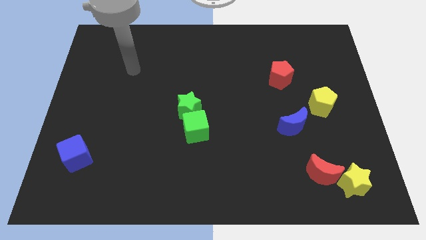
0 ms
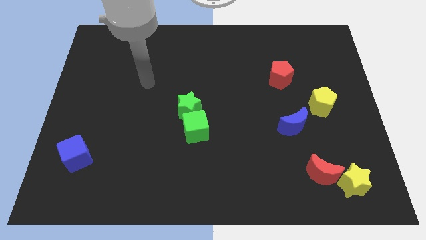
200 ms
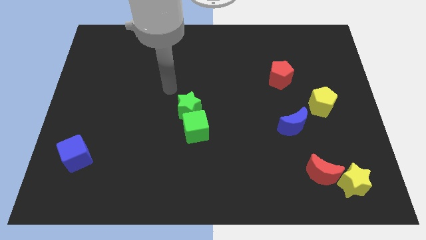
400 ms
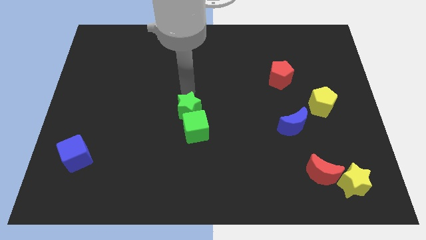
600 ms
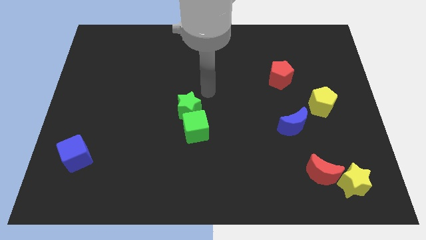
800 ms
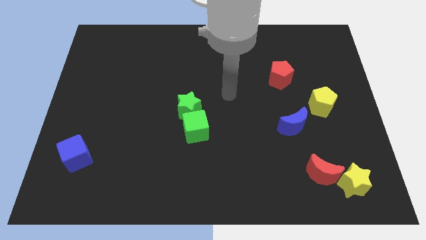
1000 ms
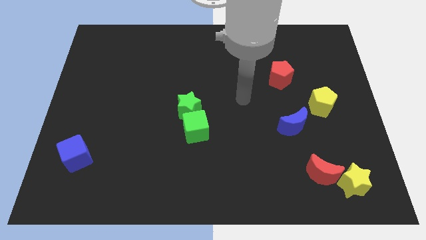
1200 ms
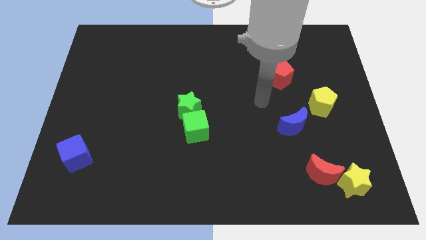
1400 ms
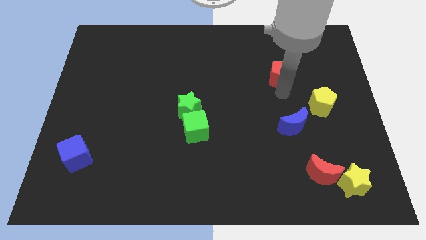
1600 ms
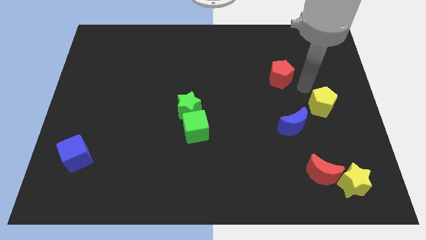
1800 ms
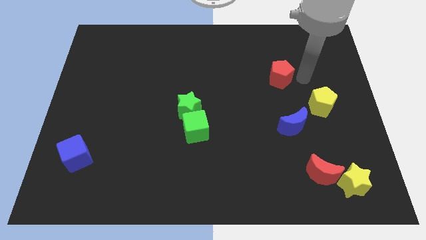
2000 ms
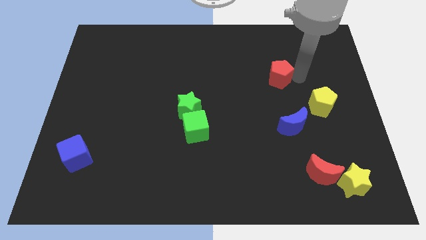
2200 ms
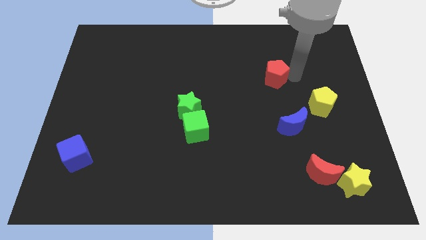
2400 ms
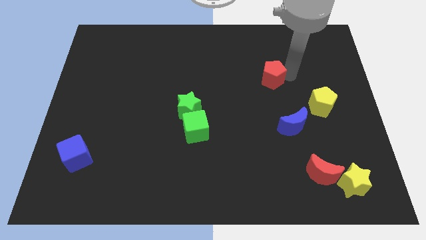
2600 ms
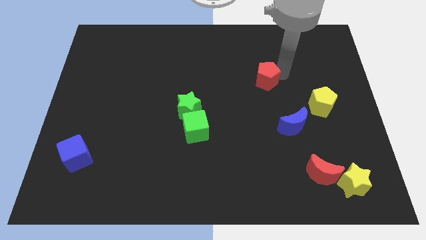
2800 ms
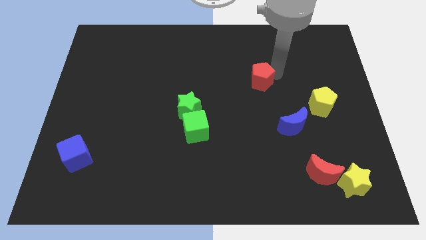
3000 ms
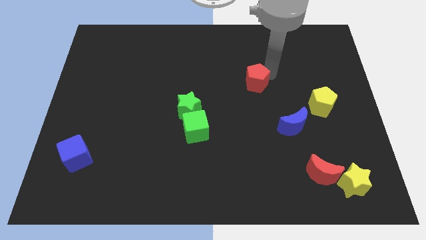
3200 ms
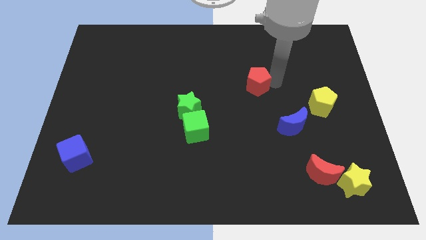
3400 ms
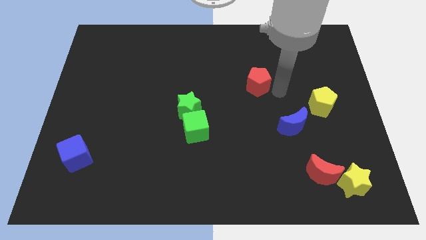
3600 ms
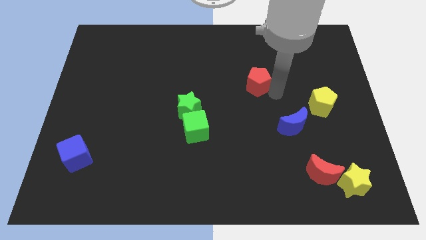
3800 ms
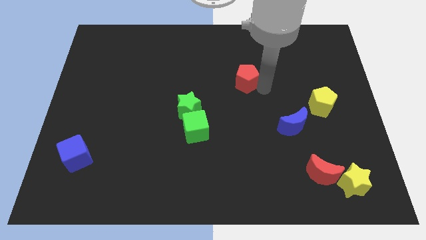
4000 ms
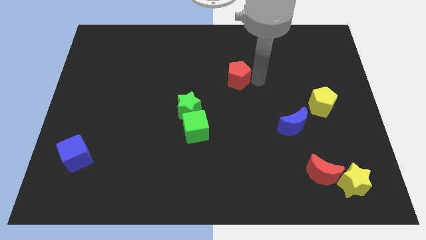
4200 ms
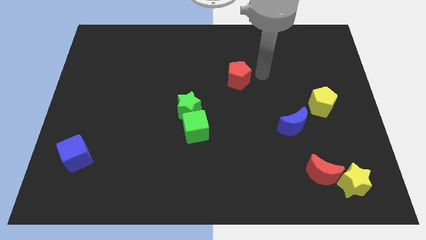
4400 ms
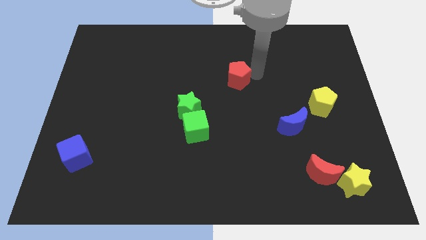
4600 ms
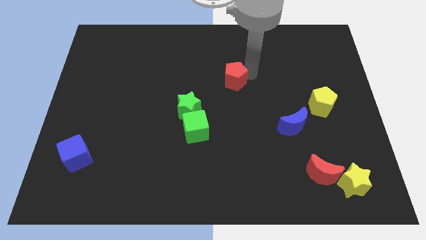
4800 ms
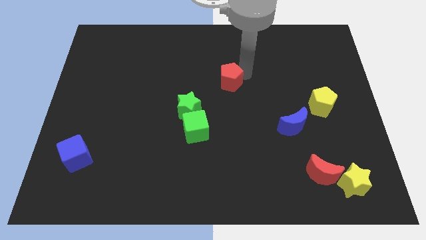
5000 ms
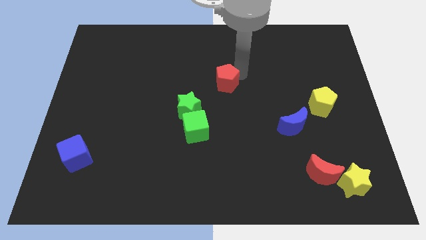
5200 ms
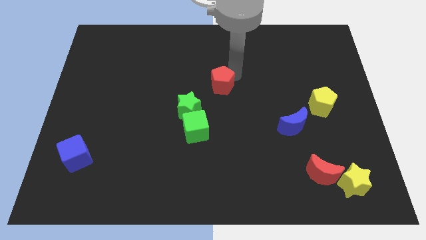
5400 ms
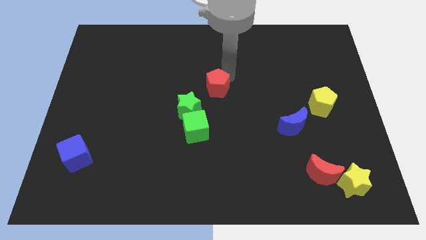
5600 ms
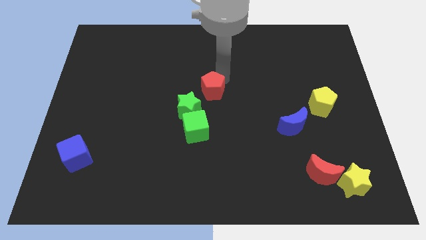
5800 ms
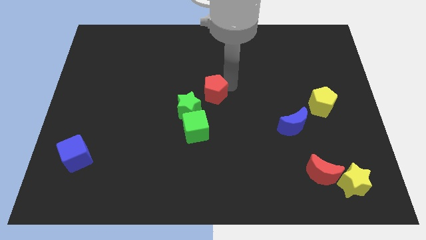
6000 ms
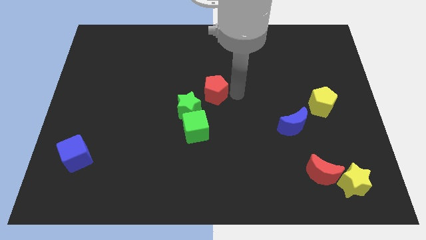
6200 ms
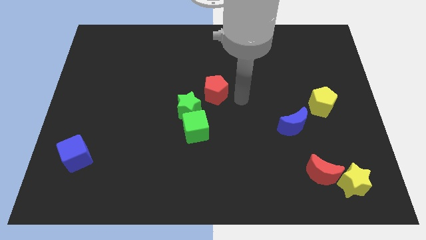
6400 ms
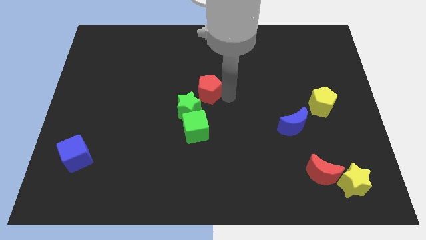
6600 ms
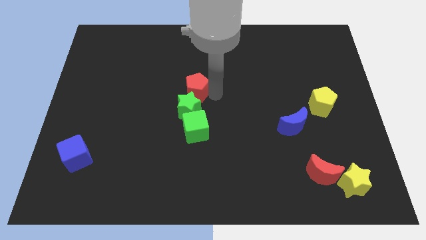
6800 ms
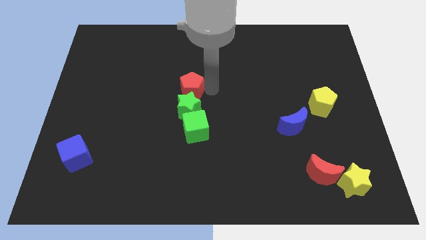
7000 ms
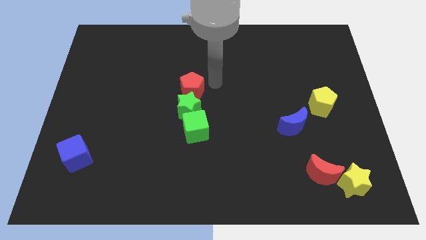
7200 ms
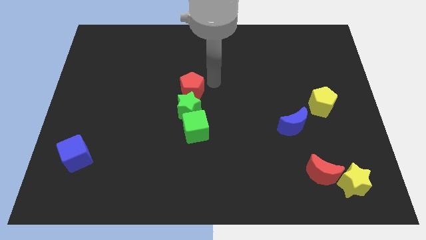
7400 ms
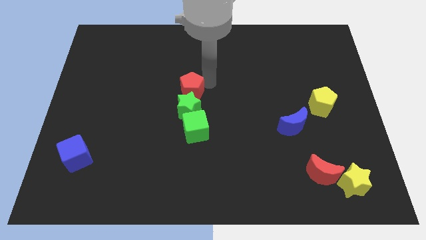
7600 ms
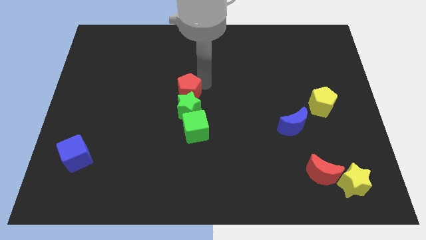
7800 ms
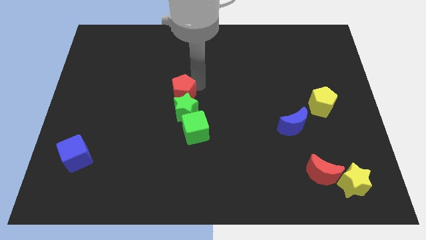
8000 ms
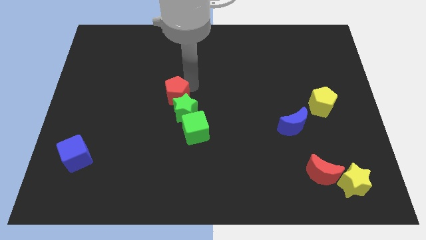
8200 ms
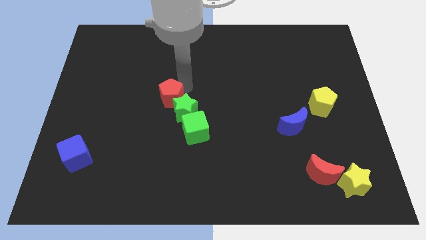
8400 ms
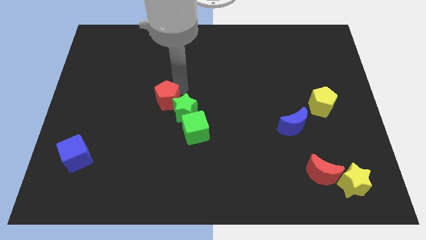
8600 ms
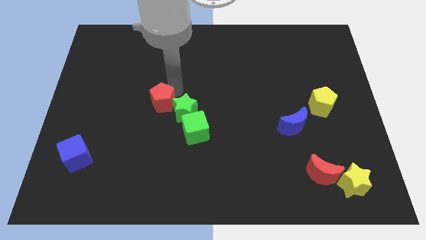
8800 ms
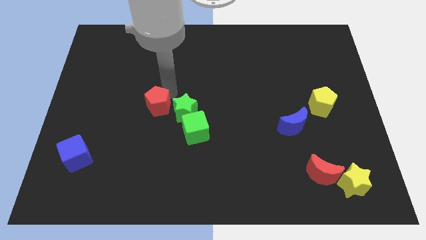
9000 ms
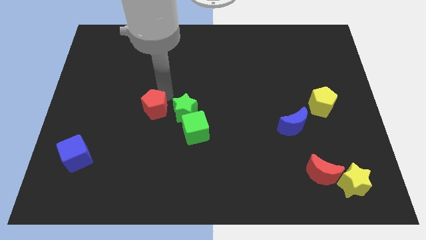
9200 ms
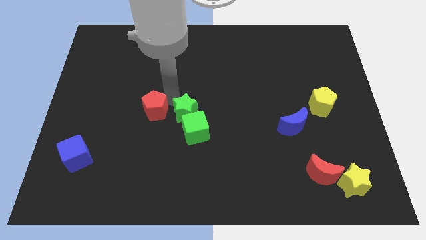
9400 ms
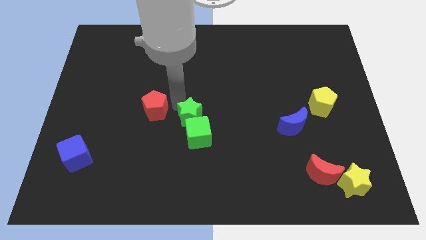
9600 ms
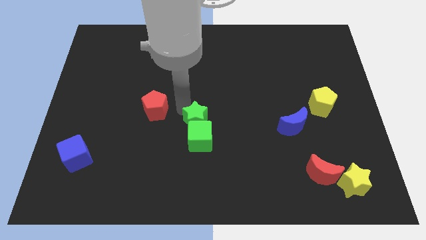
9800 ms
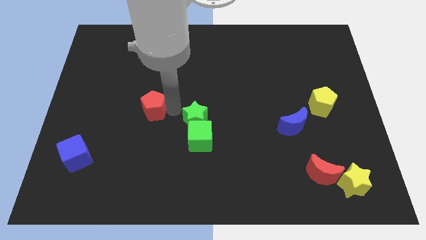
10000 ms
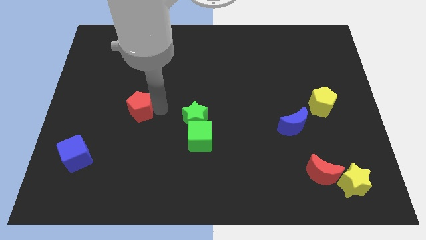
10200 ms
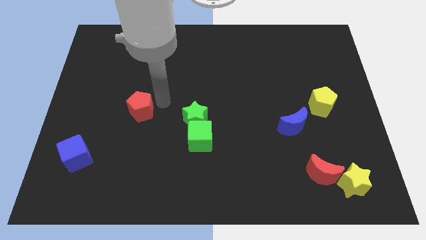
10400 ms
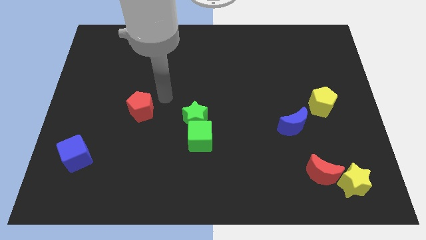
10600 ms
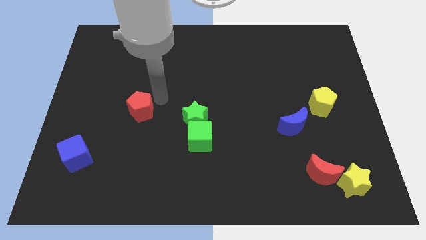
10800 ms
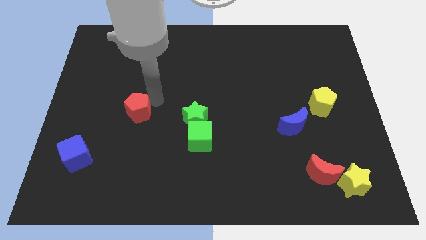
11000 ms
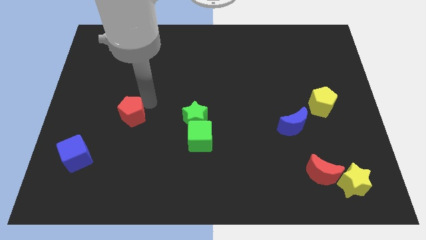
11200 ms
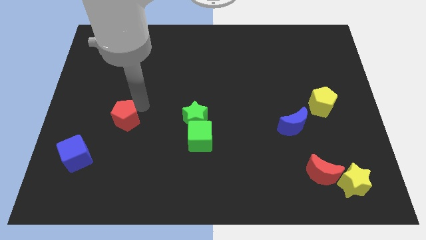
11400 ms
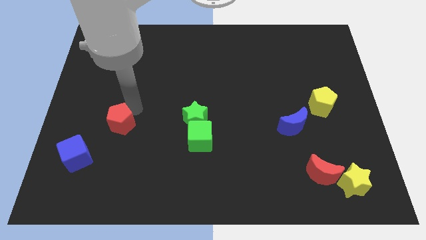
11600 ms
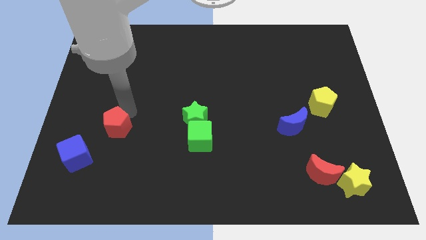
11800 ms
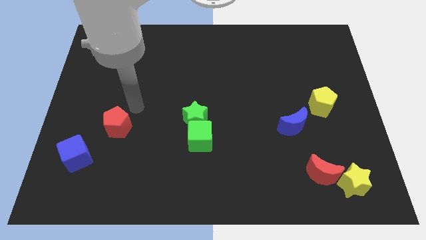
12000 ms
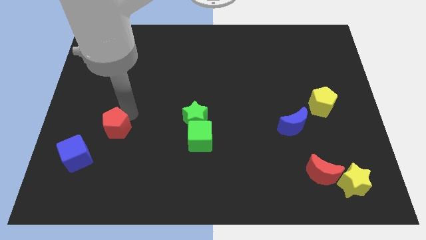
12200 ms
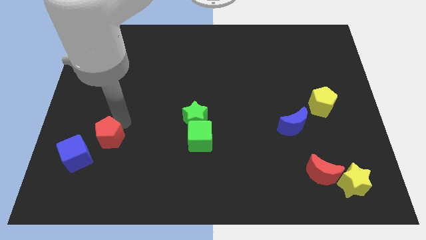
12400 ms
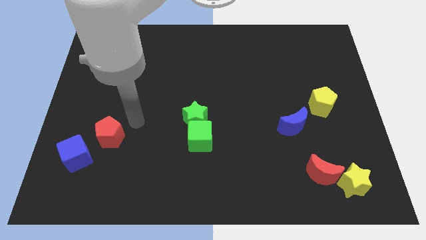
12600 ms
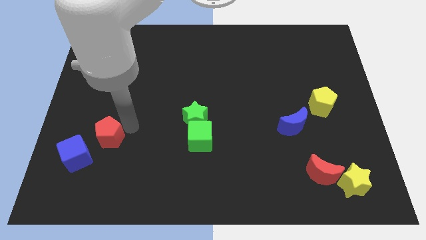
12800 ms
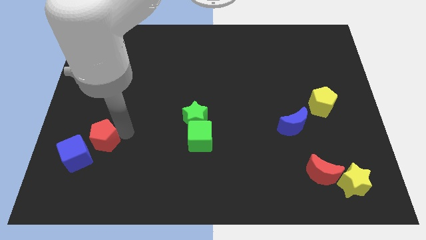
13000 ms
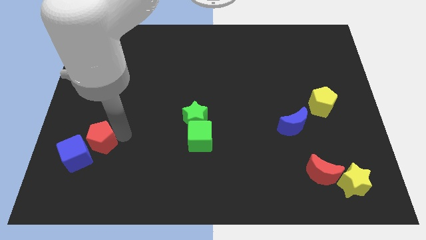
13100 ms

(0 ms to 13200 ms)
push the red pentagon towards the blue cube

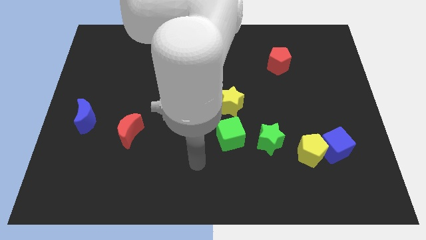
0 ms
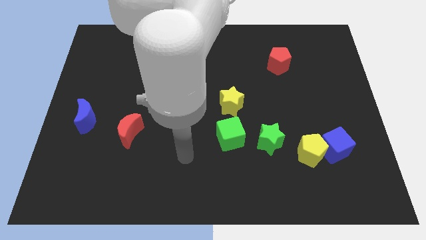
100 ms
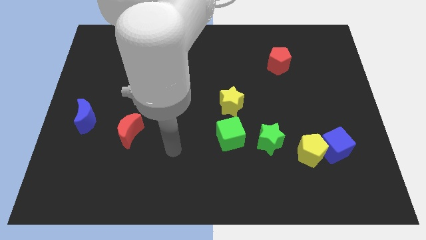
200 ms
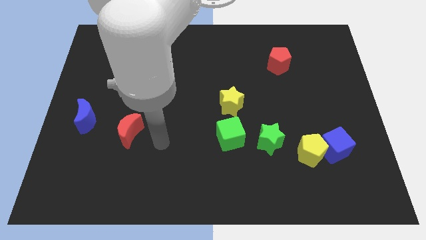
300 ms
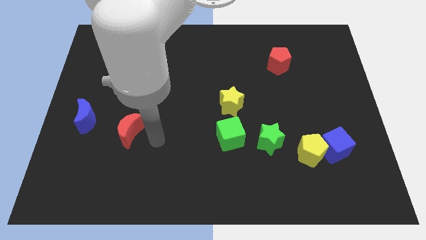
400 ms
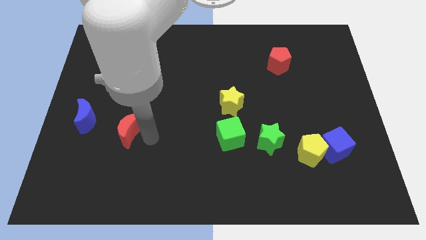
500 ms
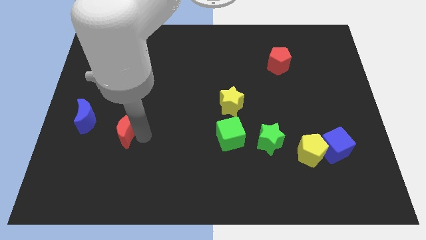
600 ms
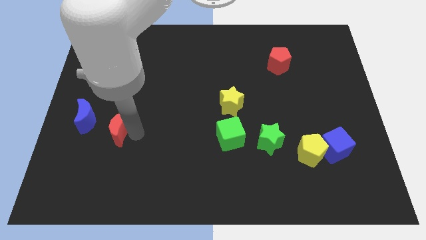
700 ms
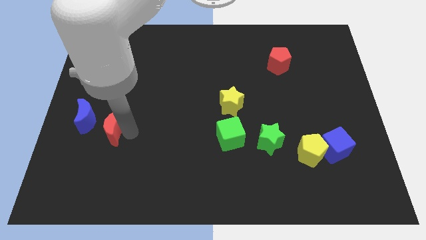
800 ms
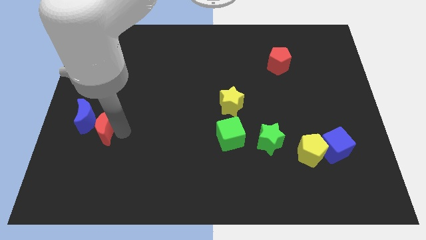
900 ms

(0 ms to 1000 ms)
push the red moon close to the blue moon
